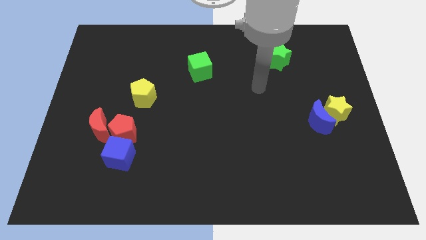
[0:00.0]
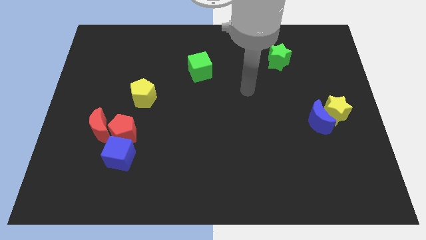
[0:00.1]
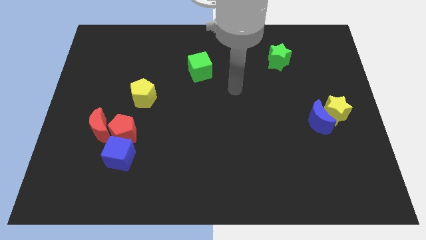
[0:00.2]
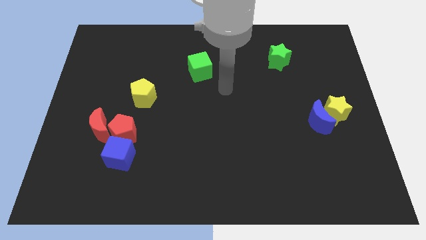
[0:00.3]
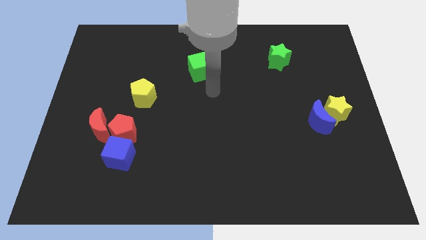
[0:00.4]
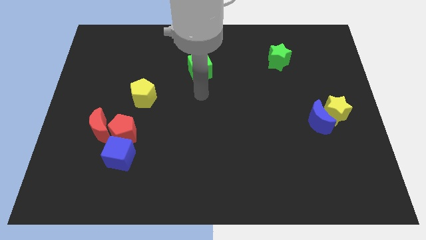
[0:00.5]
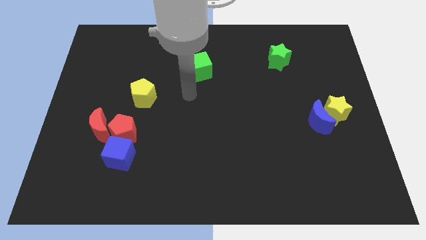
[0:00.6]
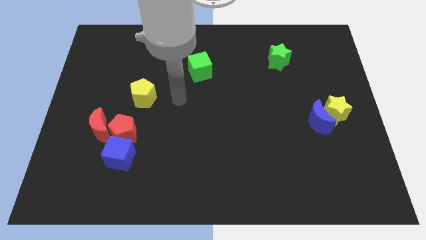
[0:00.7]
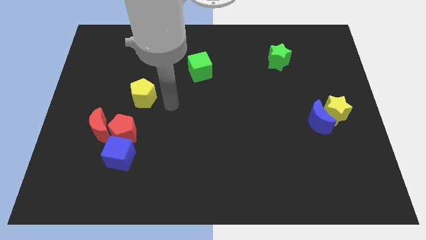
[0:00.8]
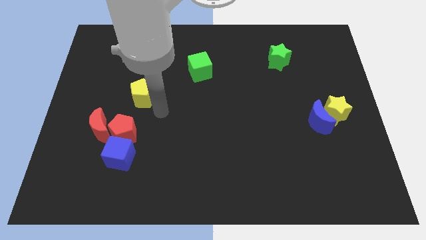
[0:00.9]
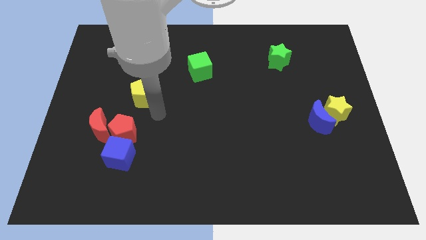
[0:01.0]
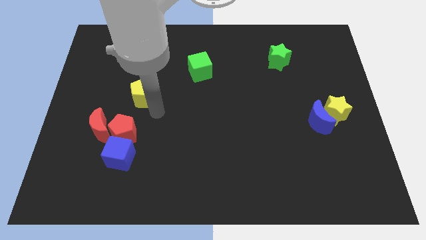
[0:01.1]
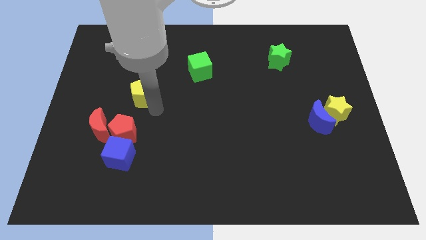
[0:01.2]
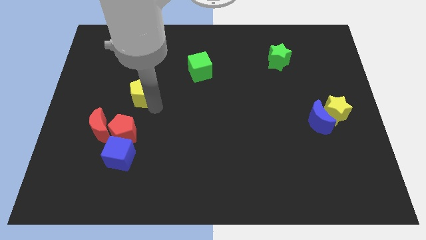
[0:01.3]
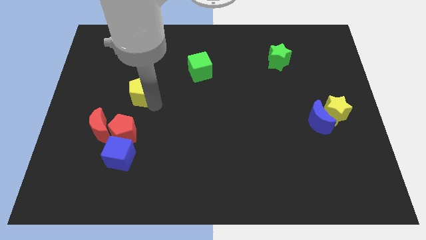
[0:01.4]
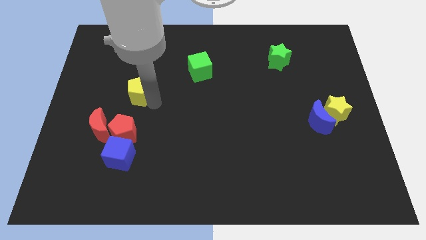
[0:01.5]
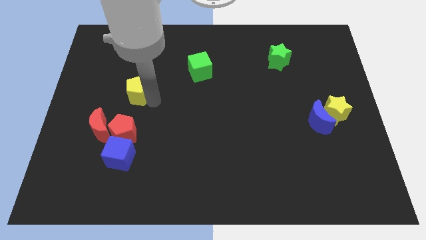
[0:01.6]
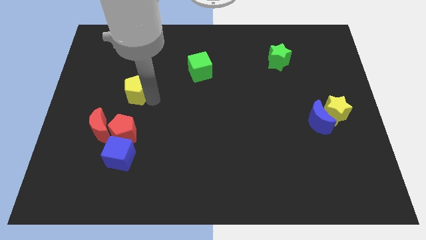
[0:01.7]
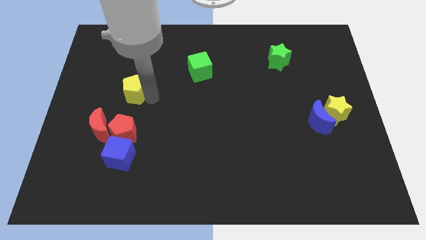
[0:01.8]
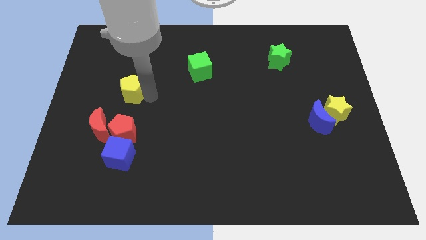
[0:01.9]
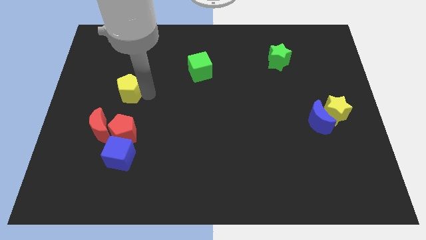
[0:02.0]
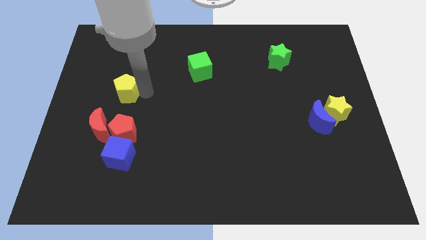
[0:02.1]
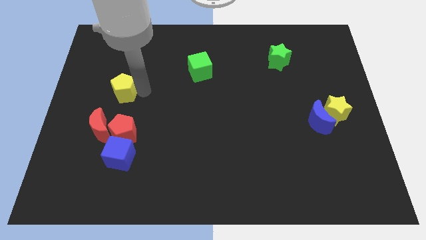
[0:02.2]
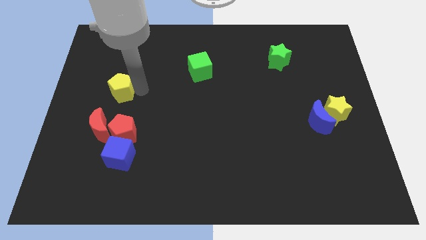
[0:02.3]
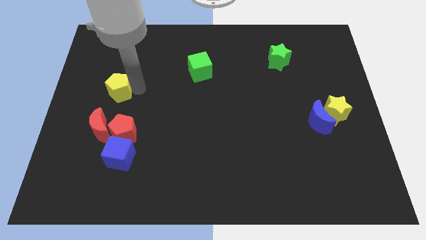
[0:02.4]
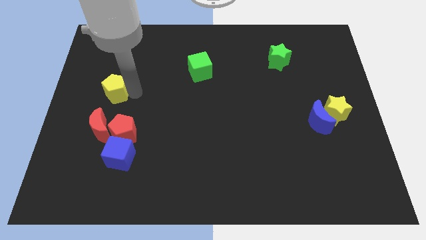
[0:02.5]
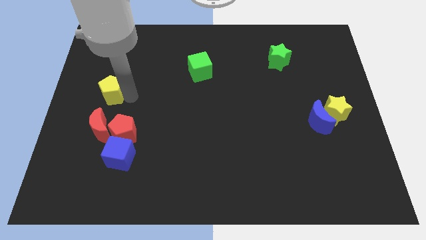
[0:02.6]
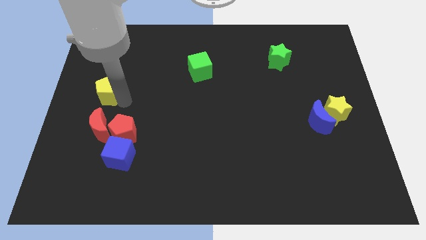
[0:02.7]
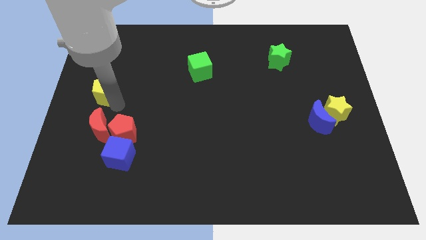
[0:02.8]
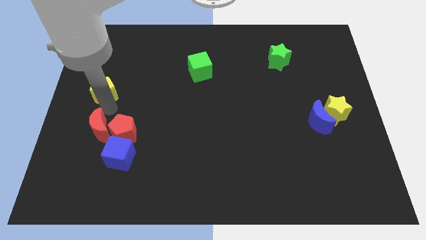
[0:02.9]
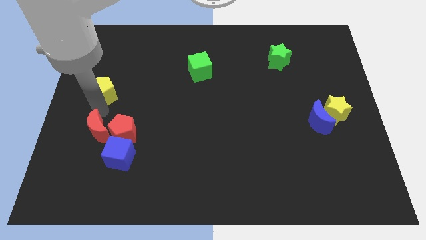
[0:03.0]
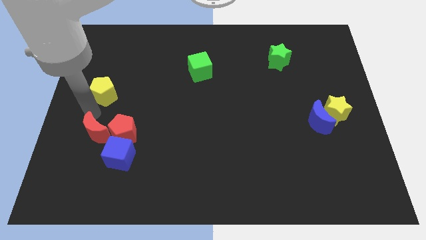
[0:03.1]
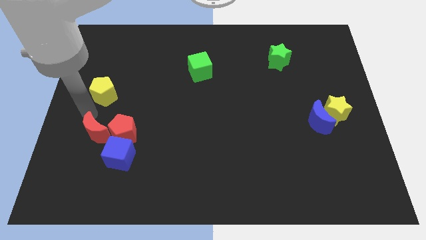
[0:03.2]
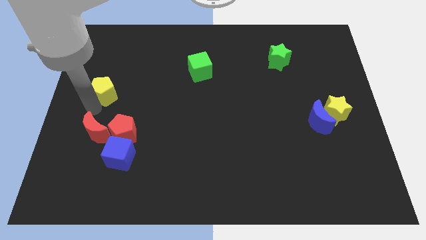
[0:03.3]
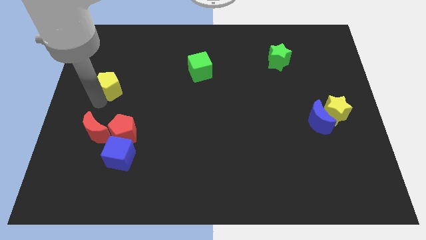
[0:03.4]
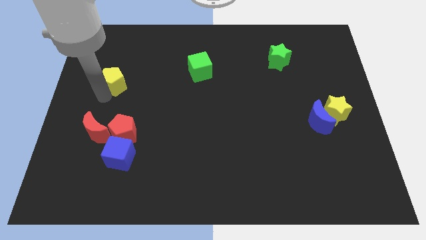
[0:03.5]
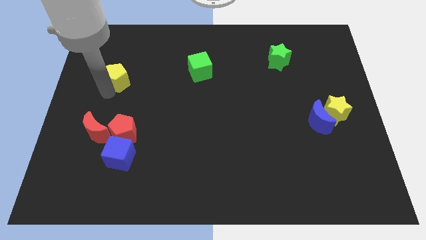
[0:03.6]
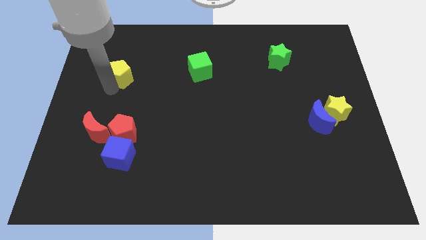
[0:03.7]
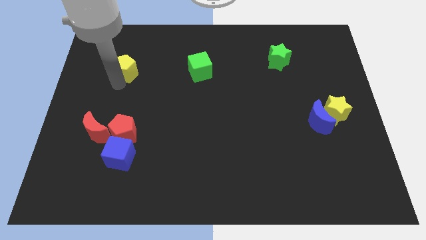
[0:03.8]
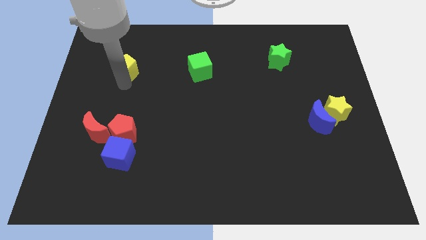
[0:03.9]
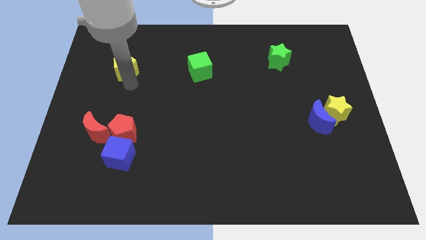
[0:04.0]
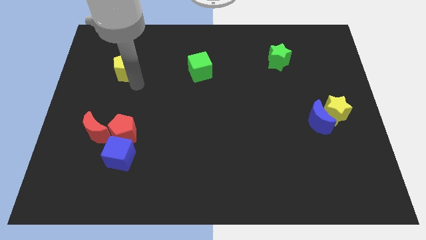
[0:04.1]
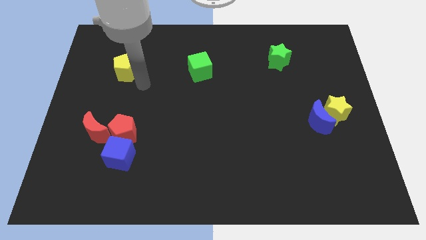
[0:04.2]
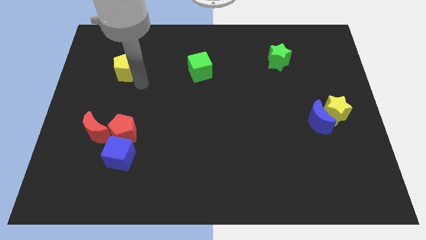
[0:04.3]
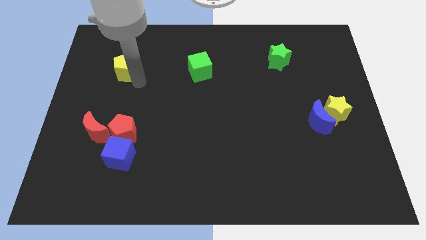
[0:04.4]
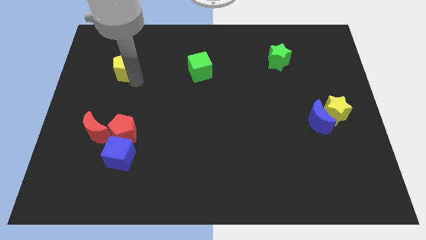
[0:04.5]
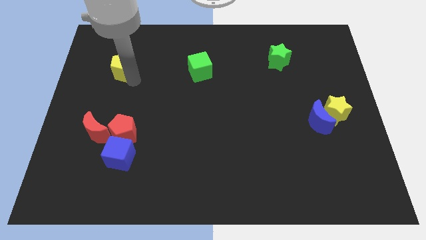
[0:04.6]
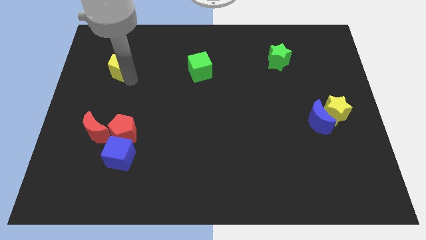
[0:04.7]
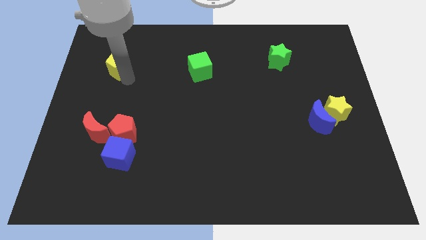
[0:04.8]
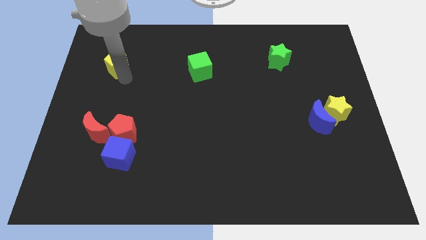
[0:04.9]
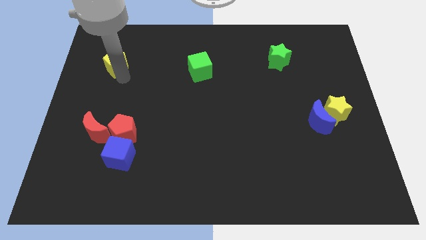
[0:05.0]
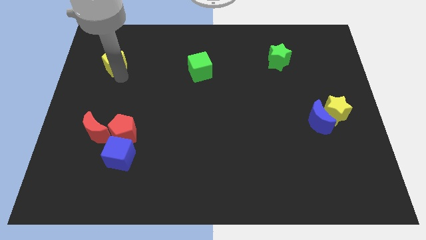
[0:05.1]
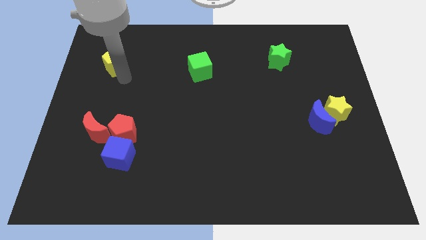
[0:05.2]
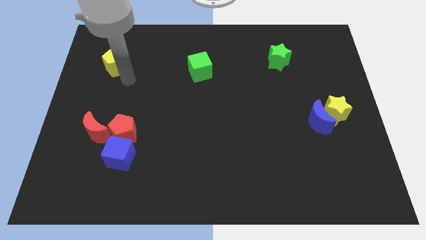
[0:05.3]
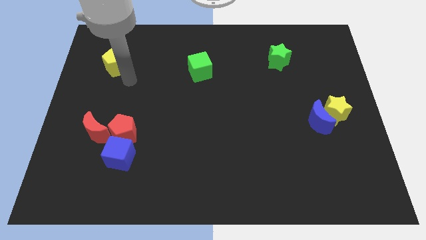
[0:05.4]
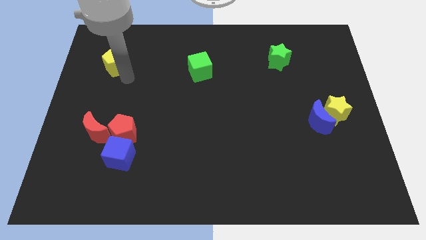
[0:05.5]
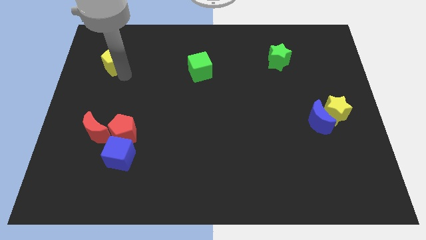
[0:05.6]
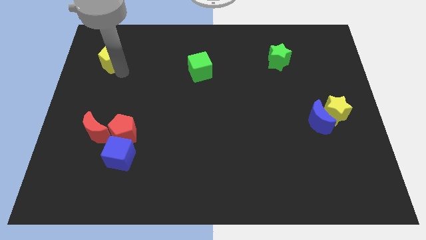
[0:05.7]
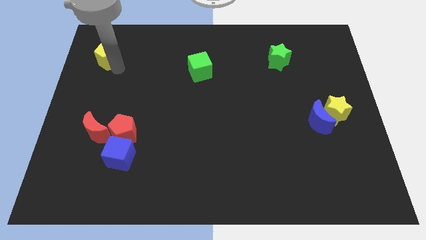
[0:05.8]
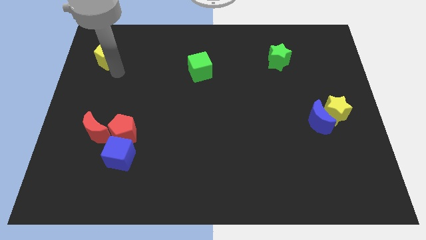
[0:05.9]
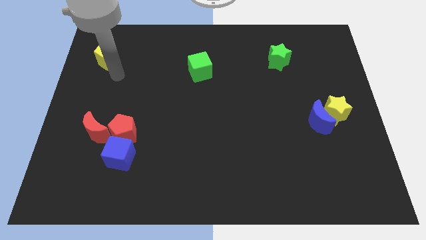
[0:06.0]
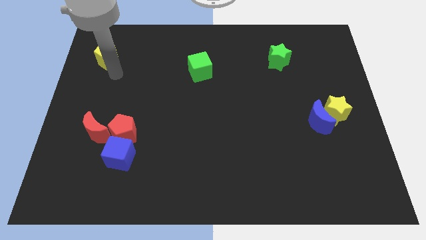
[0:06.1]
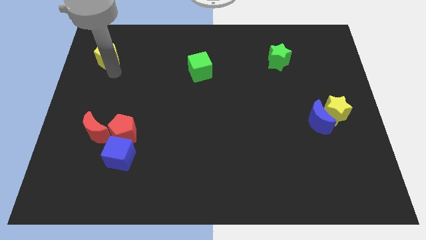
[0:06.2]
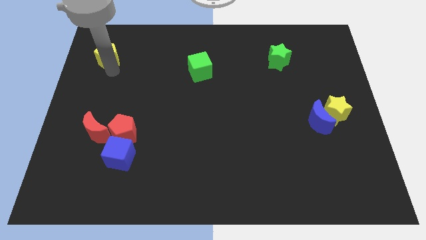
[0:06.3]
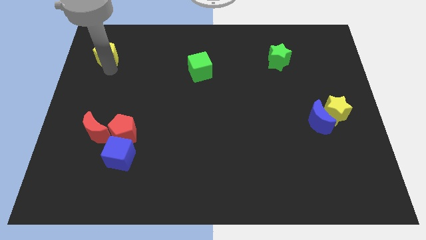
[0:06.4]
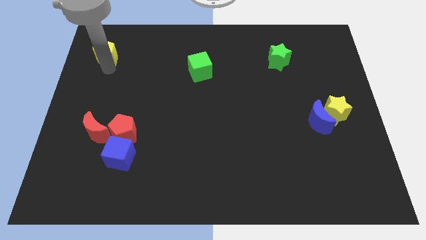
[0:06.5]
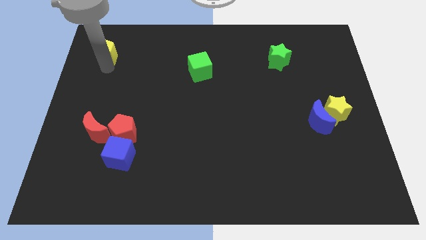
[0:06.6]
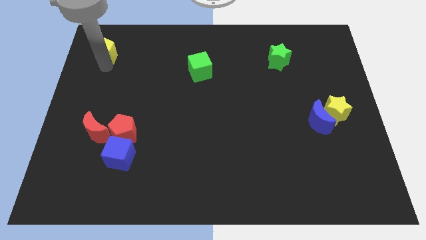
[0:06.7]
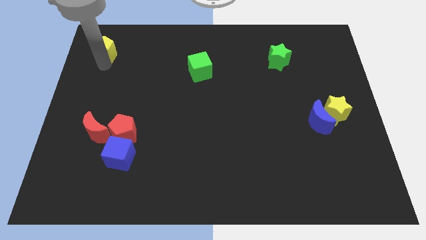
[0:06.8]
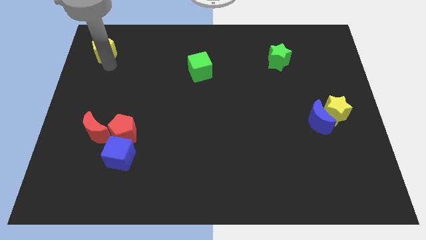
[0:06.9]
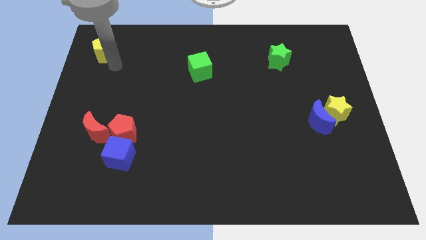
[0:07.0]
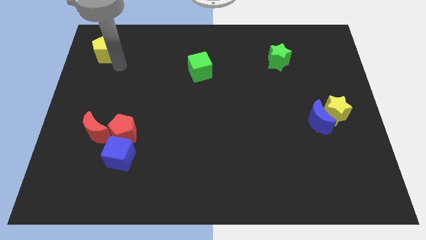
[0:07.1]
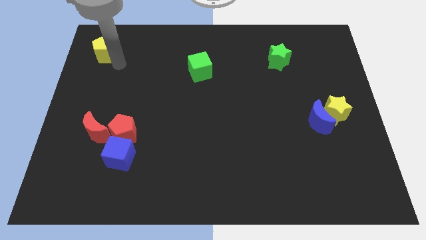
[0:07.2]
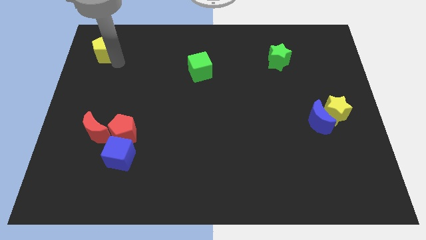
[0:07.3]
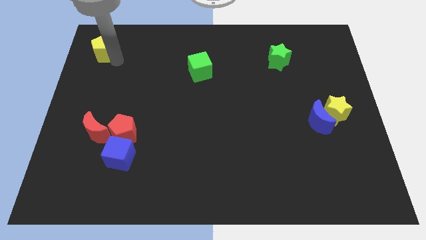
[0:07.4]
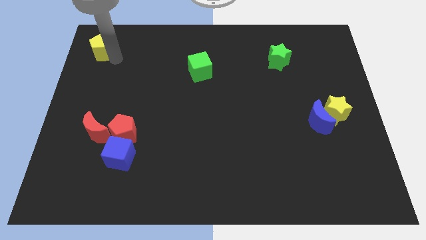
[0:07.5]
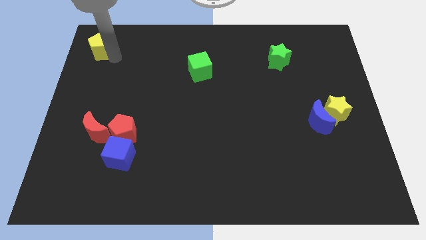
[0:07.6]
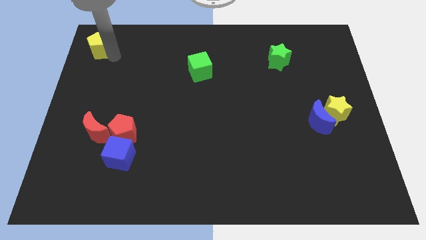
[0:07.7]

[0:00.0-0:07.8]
push the yellow pentagon to the upper left corner
